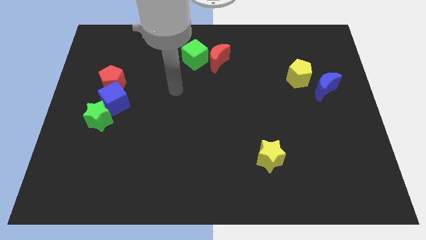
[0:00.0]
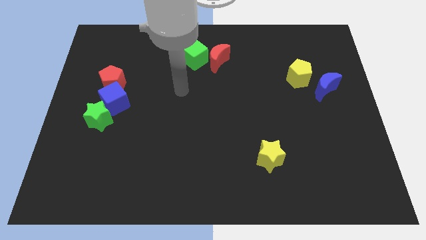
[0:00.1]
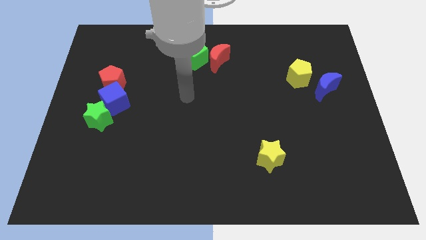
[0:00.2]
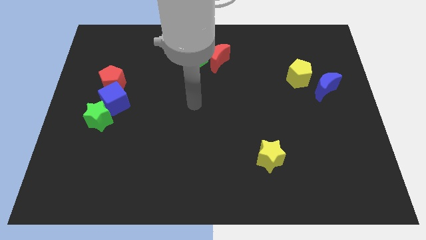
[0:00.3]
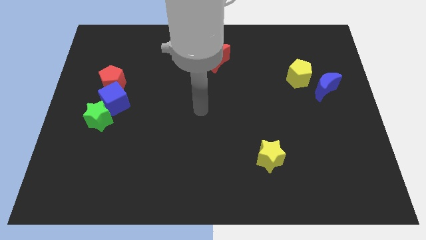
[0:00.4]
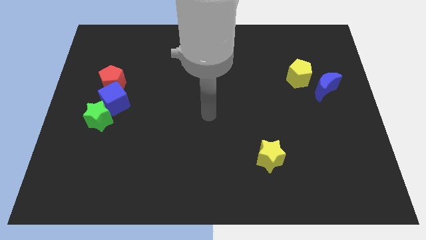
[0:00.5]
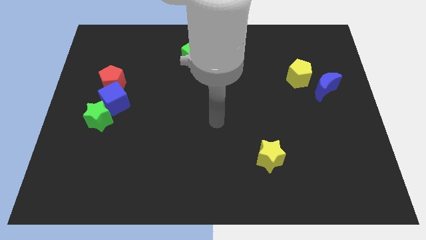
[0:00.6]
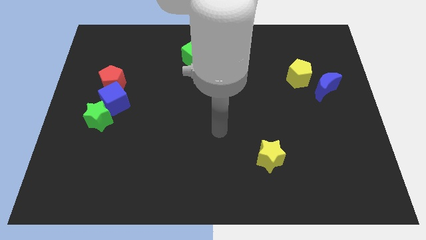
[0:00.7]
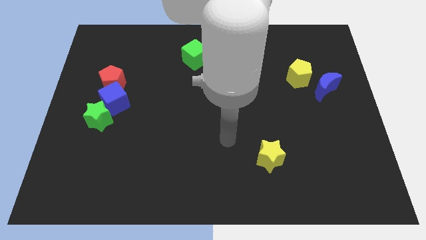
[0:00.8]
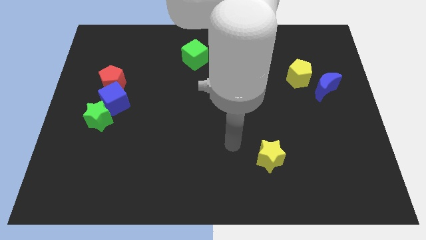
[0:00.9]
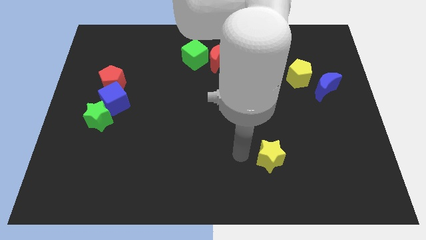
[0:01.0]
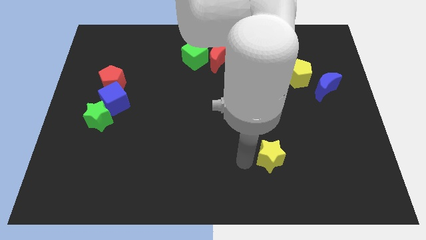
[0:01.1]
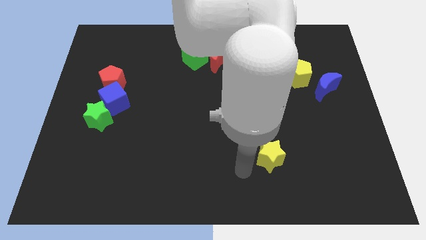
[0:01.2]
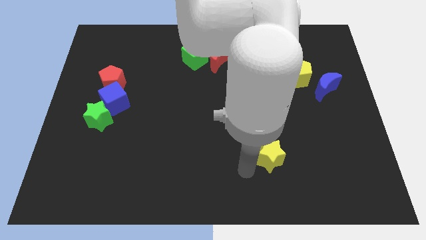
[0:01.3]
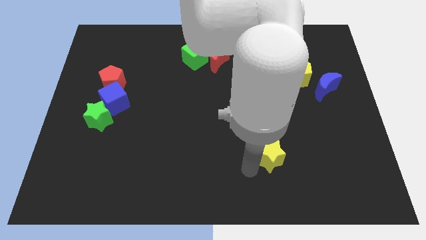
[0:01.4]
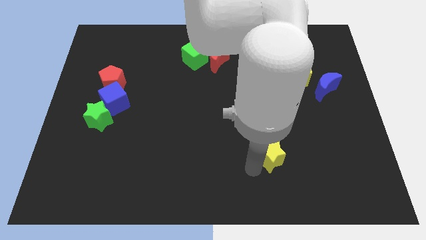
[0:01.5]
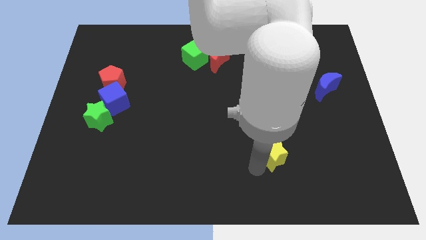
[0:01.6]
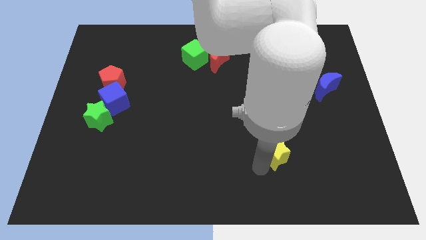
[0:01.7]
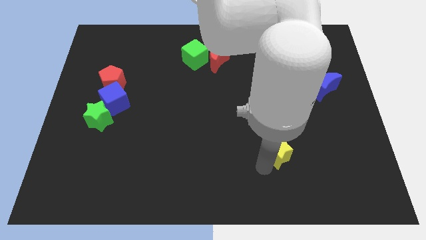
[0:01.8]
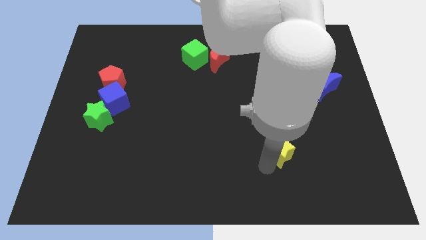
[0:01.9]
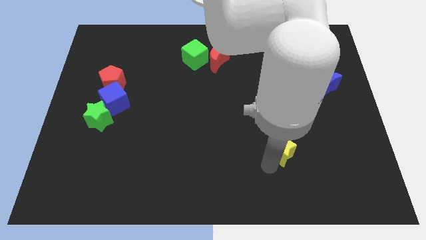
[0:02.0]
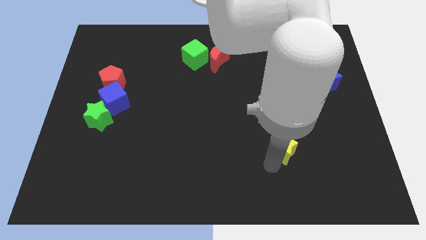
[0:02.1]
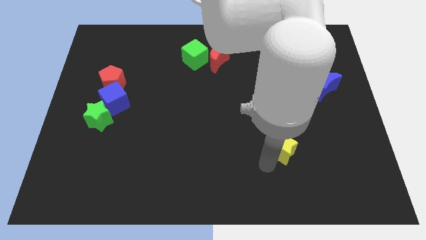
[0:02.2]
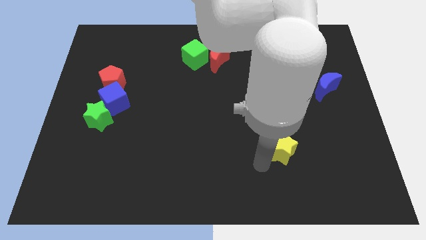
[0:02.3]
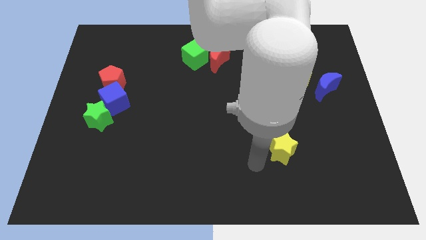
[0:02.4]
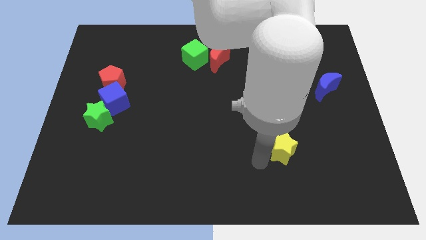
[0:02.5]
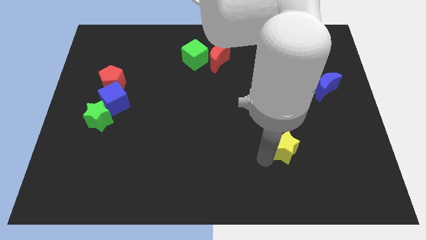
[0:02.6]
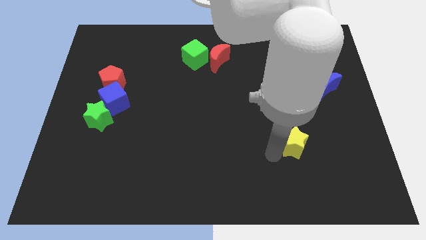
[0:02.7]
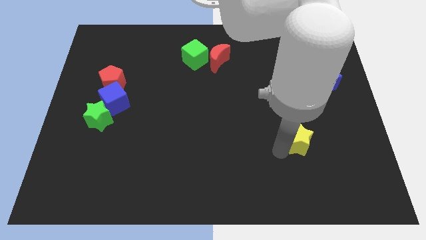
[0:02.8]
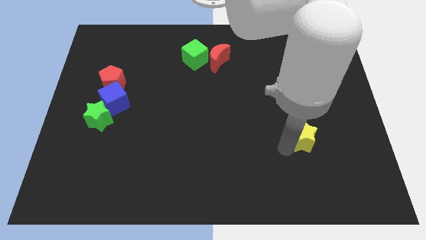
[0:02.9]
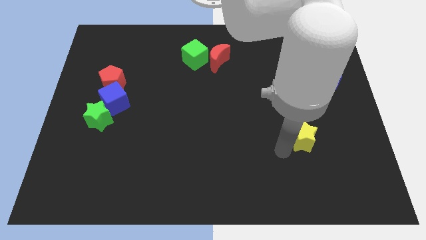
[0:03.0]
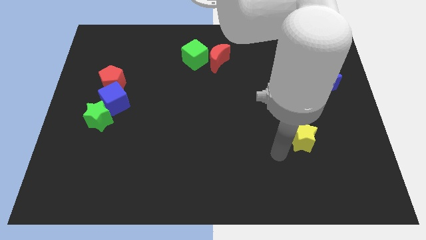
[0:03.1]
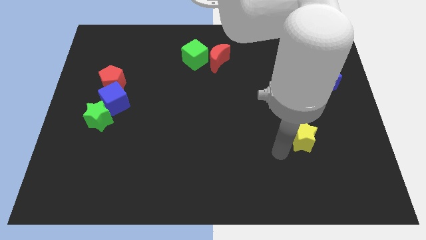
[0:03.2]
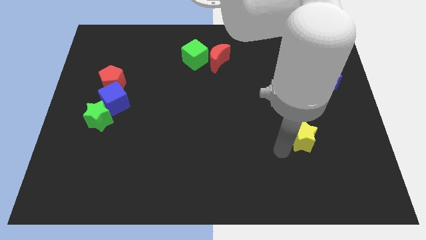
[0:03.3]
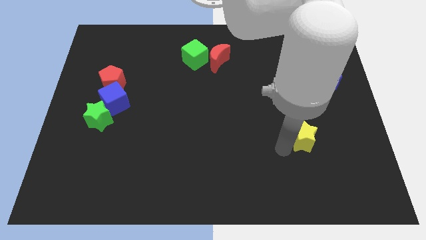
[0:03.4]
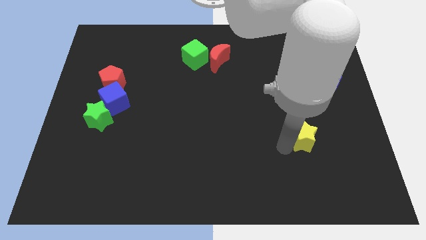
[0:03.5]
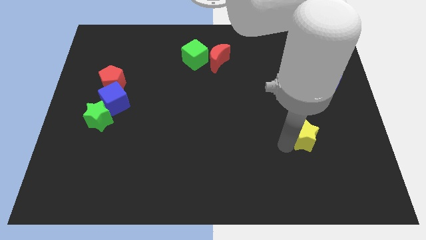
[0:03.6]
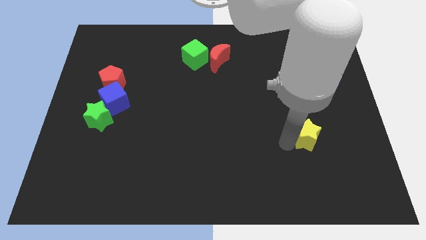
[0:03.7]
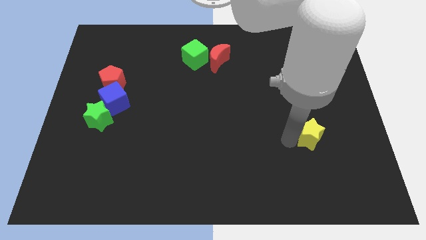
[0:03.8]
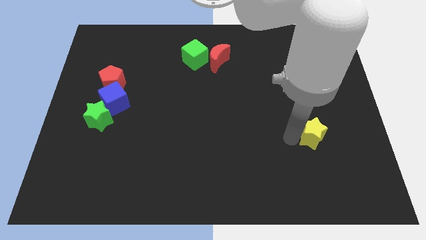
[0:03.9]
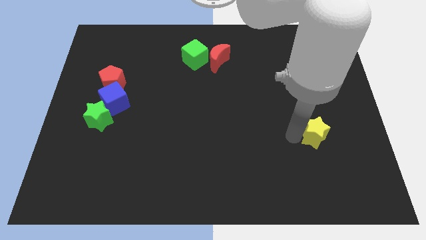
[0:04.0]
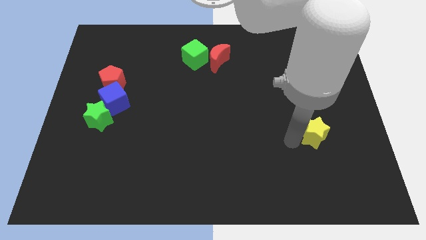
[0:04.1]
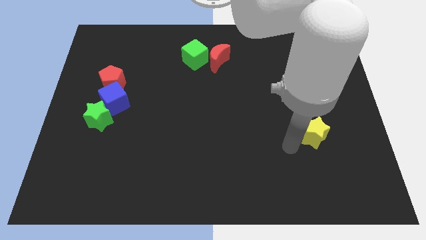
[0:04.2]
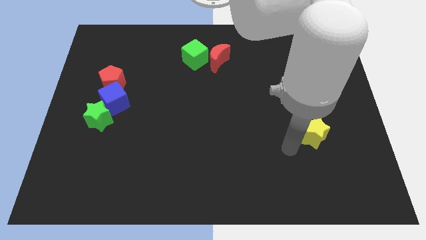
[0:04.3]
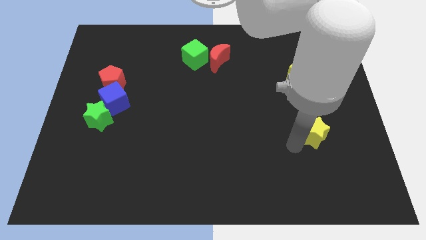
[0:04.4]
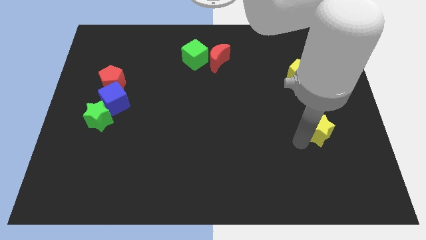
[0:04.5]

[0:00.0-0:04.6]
put the yellow star to the bottom of the blue moon

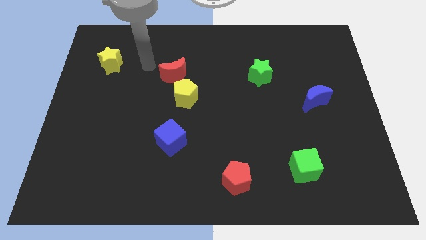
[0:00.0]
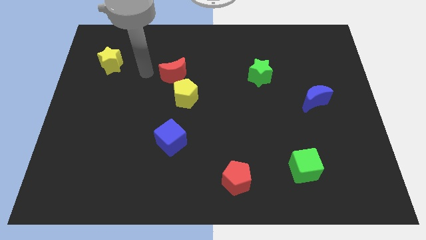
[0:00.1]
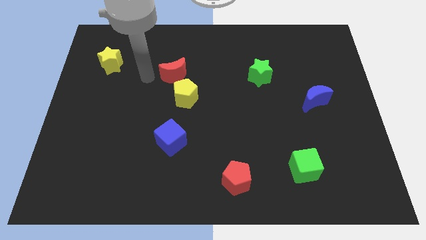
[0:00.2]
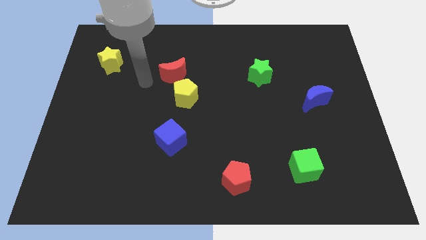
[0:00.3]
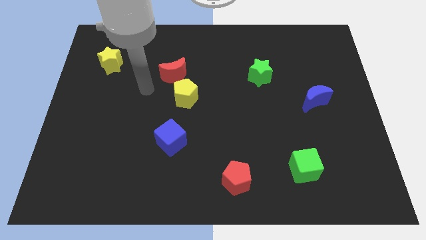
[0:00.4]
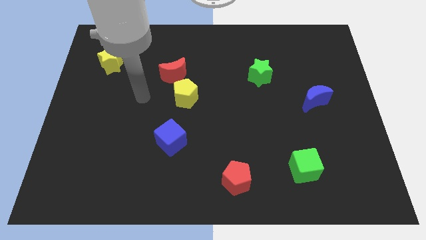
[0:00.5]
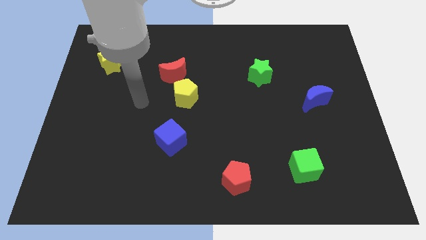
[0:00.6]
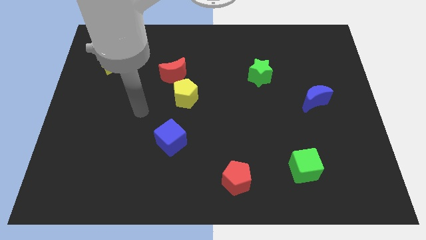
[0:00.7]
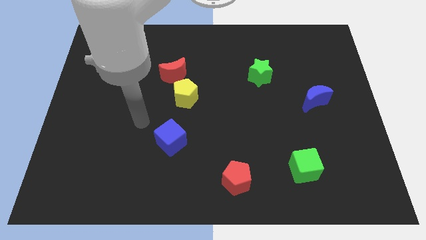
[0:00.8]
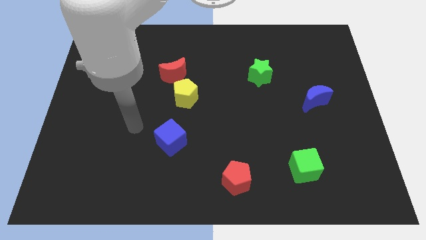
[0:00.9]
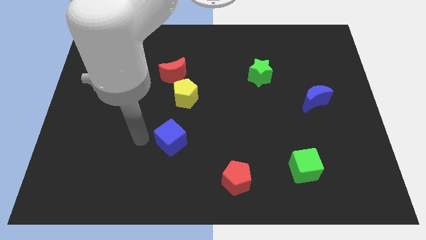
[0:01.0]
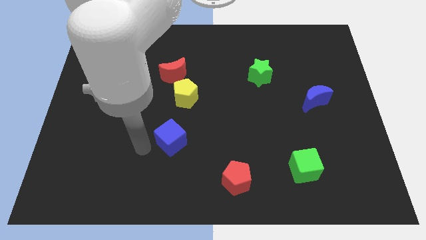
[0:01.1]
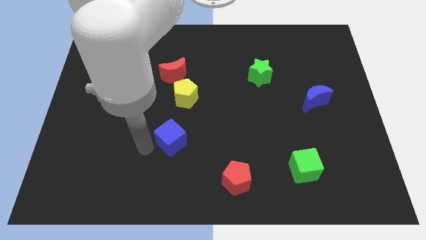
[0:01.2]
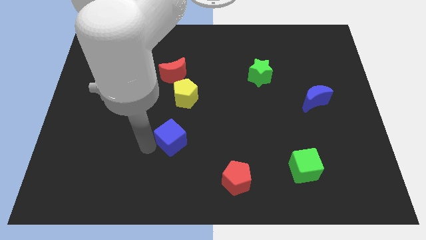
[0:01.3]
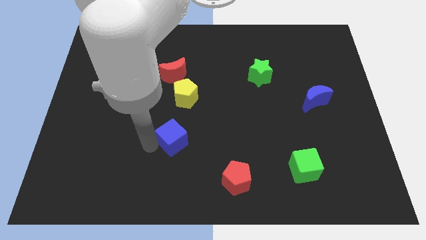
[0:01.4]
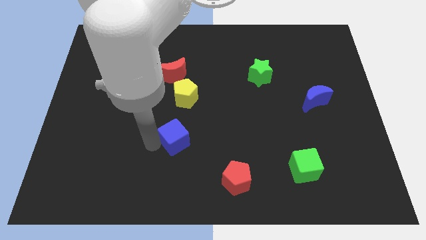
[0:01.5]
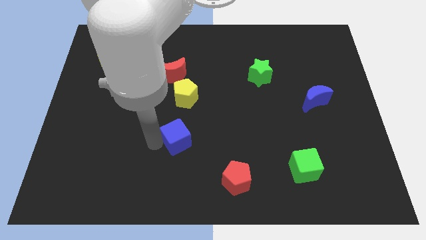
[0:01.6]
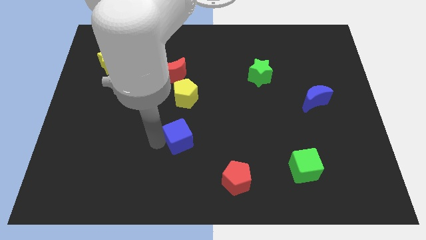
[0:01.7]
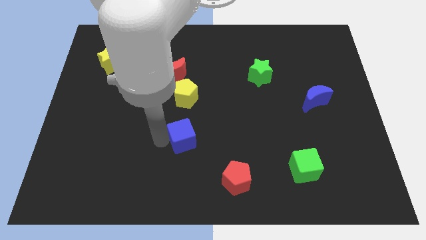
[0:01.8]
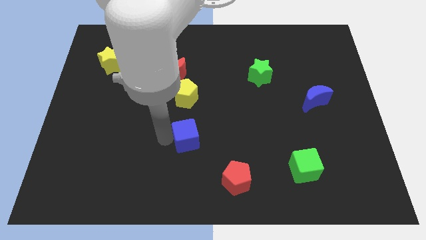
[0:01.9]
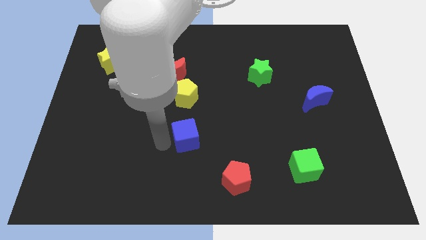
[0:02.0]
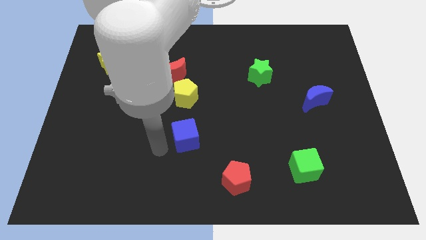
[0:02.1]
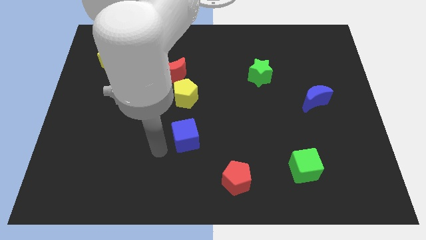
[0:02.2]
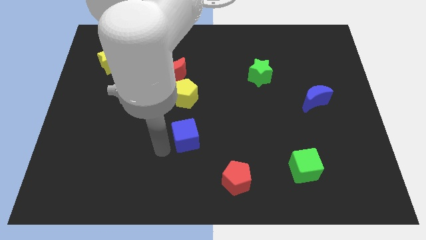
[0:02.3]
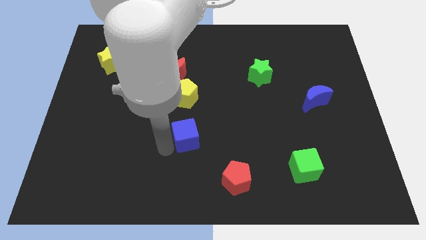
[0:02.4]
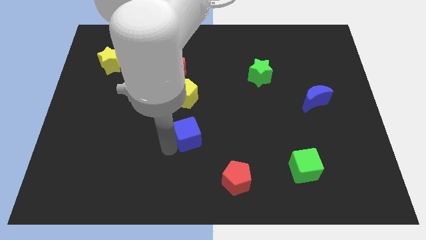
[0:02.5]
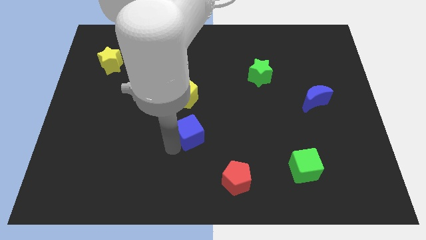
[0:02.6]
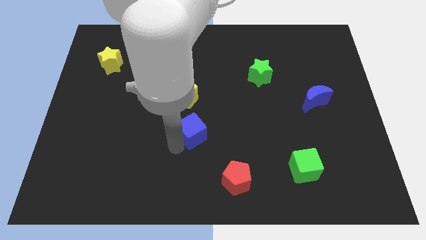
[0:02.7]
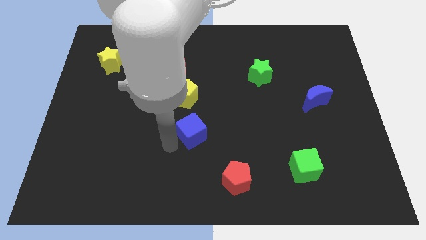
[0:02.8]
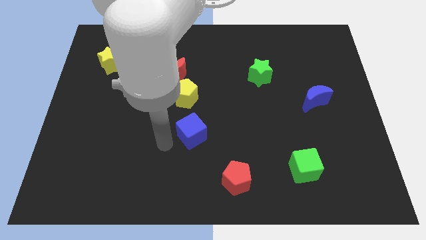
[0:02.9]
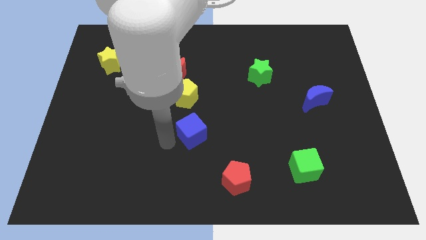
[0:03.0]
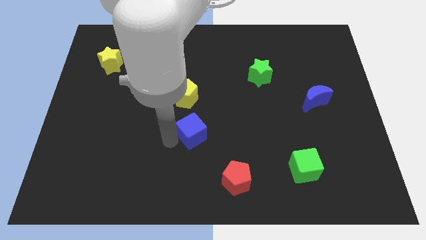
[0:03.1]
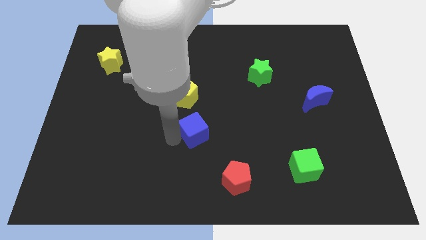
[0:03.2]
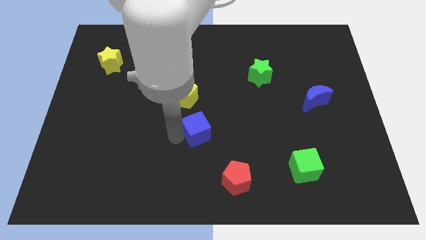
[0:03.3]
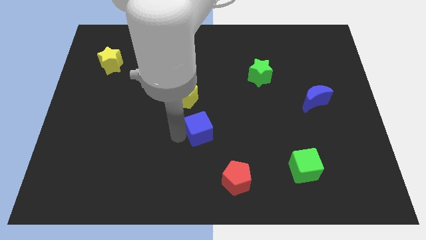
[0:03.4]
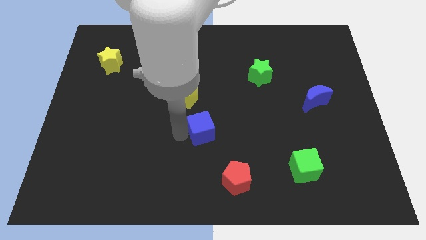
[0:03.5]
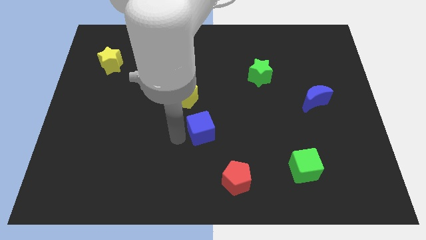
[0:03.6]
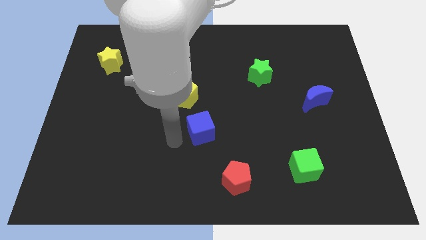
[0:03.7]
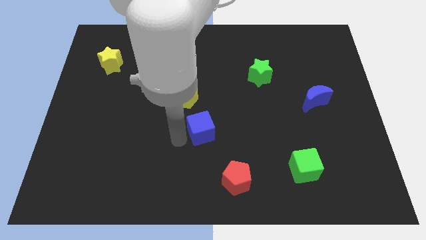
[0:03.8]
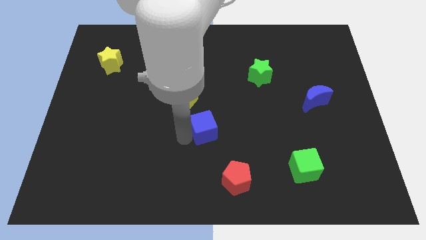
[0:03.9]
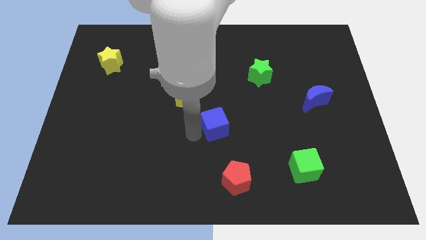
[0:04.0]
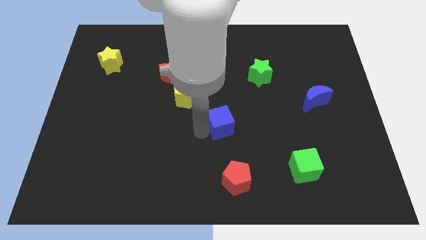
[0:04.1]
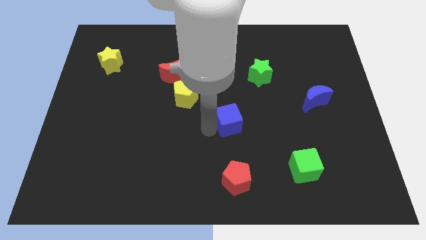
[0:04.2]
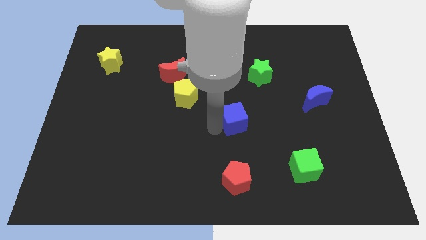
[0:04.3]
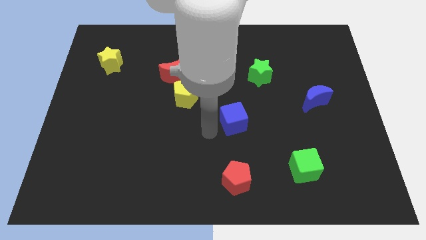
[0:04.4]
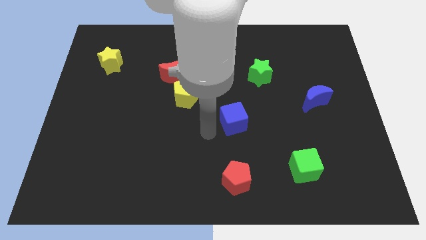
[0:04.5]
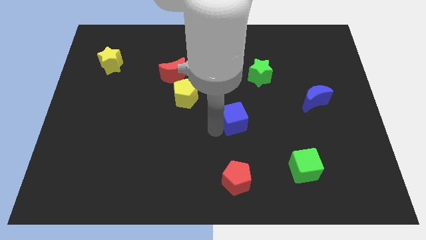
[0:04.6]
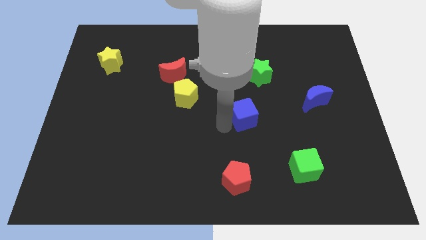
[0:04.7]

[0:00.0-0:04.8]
move the blue cube to the bottom side of the green star
